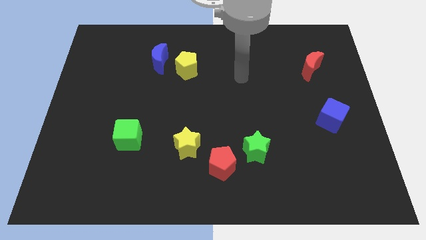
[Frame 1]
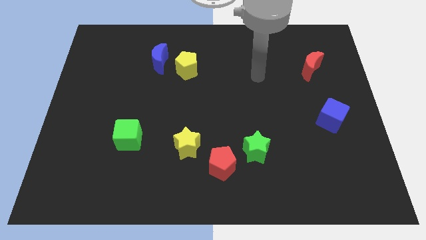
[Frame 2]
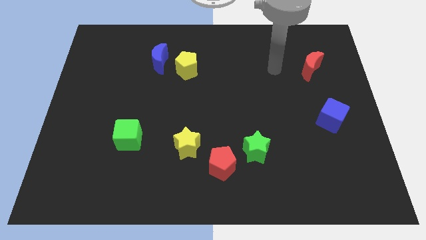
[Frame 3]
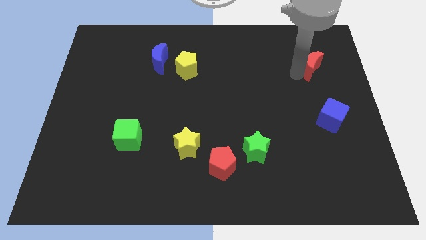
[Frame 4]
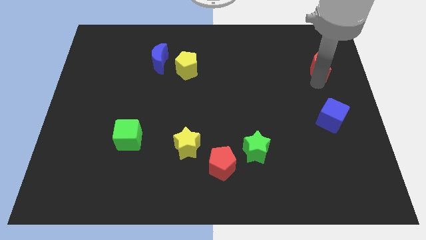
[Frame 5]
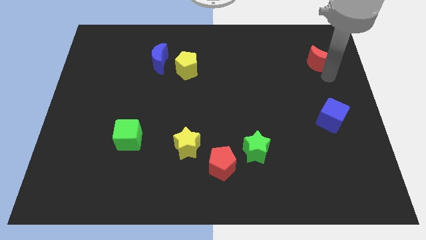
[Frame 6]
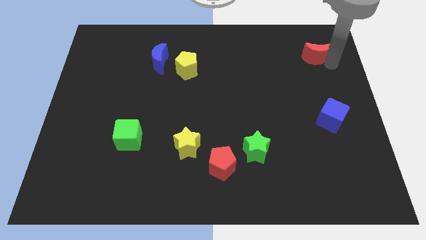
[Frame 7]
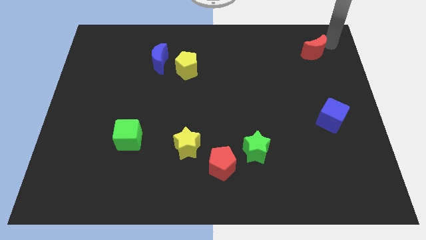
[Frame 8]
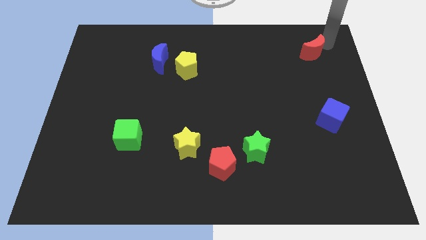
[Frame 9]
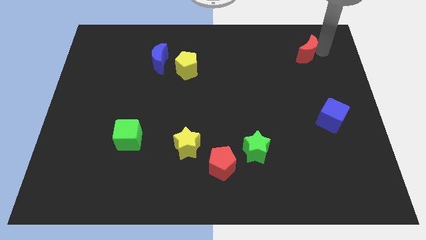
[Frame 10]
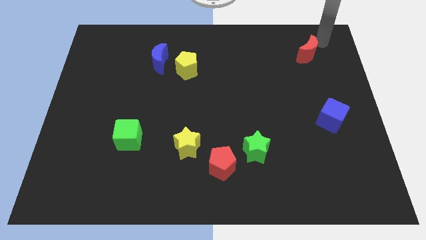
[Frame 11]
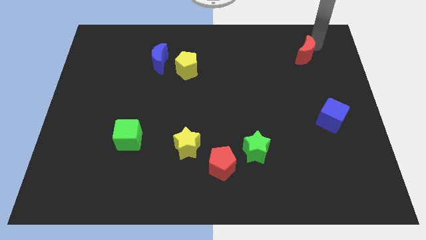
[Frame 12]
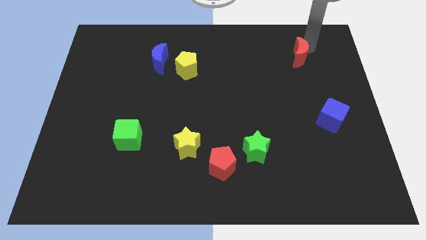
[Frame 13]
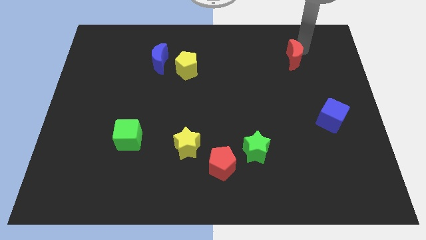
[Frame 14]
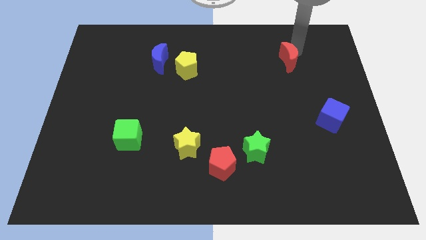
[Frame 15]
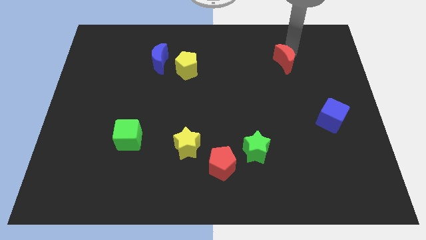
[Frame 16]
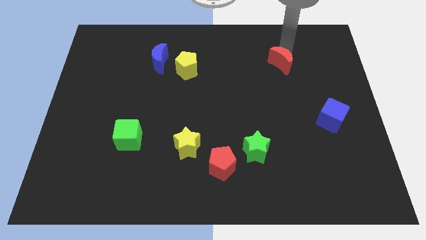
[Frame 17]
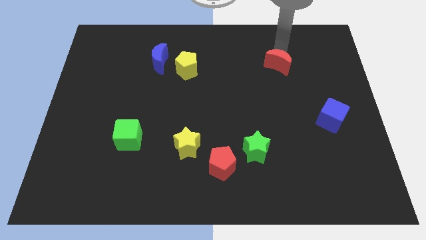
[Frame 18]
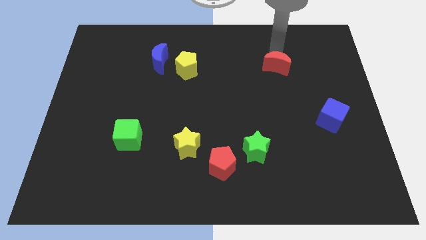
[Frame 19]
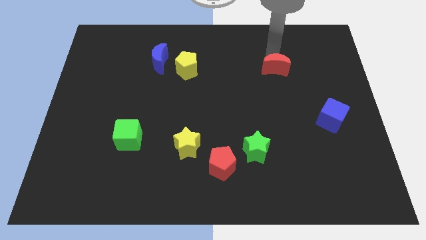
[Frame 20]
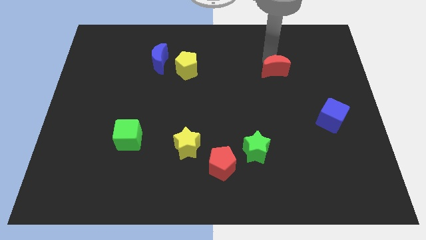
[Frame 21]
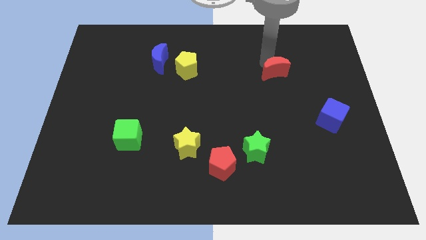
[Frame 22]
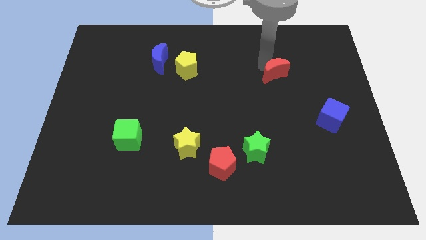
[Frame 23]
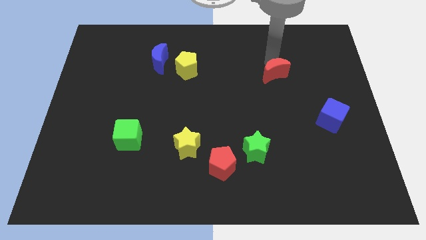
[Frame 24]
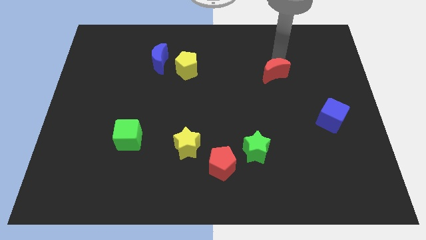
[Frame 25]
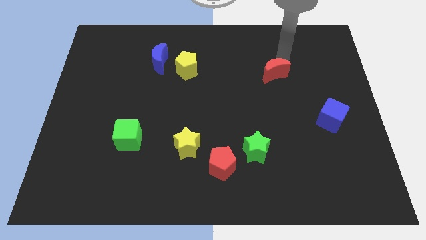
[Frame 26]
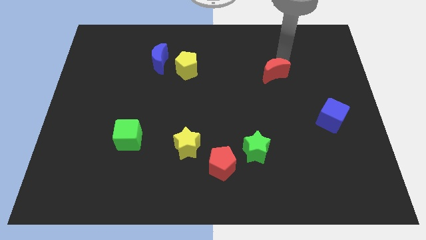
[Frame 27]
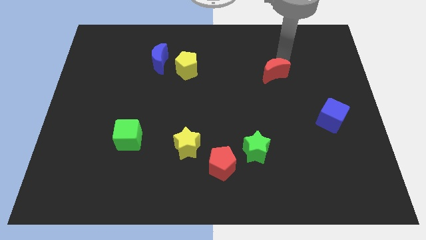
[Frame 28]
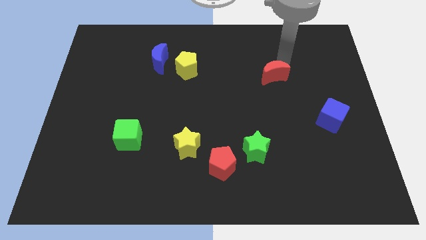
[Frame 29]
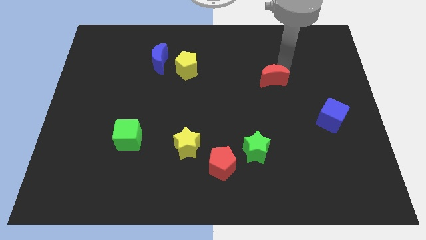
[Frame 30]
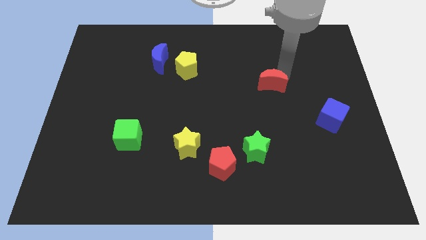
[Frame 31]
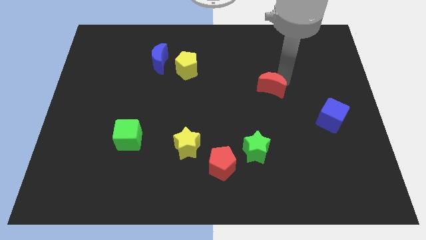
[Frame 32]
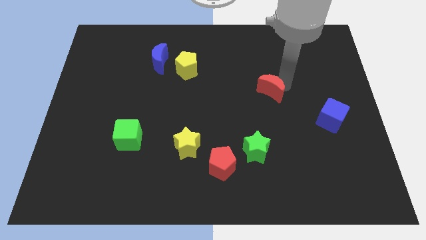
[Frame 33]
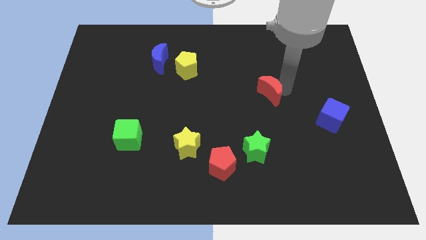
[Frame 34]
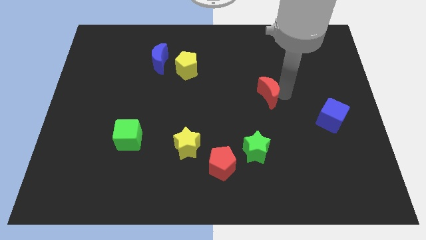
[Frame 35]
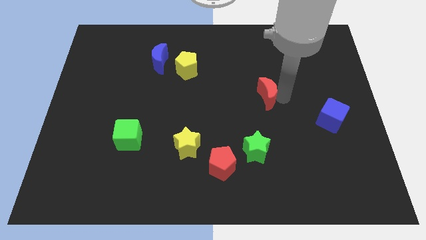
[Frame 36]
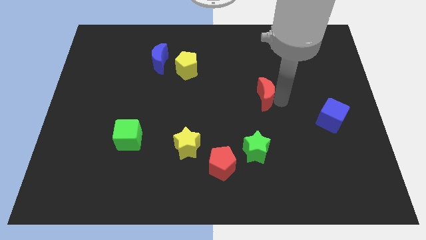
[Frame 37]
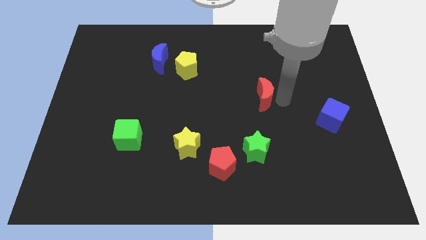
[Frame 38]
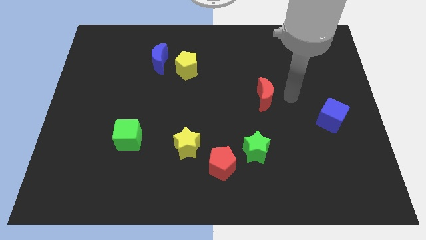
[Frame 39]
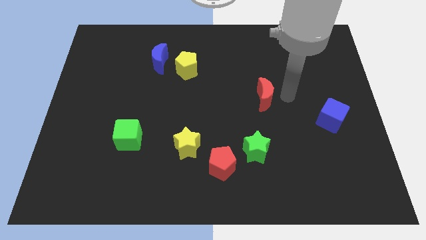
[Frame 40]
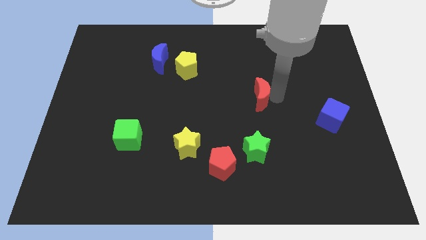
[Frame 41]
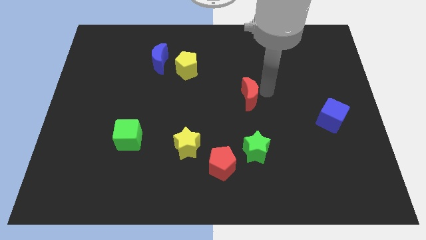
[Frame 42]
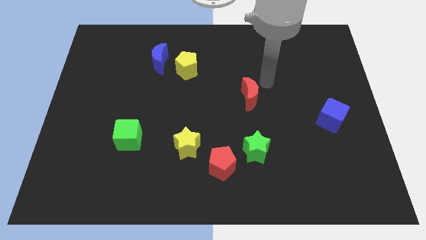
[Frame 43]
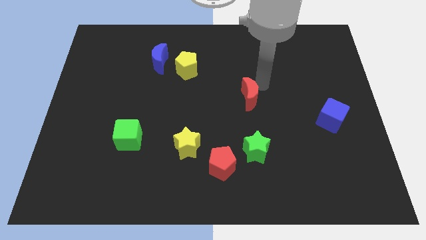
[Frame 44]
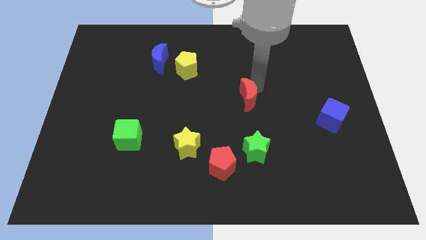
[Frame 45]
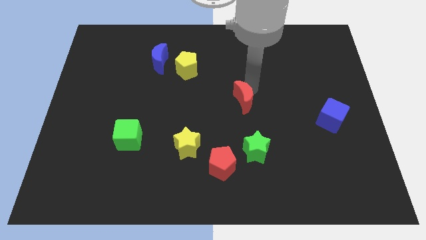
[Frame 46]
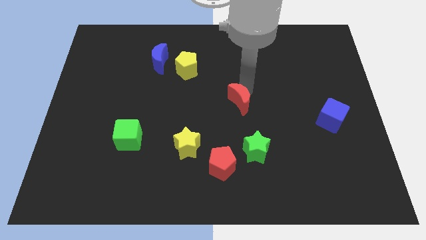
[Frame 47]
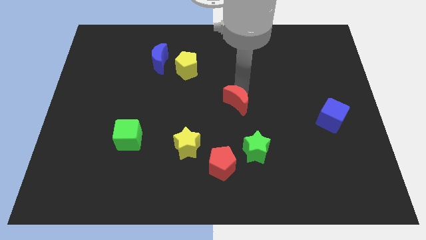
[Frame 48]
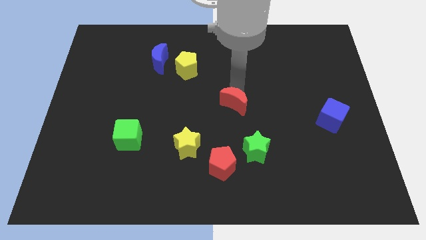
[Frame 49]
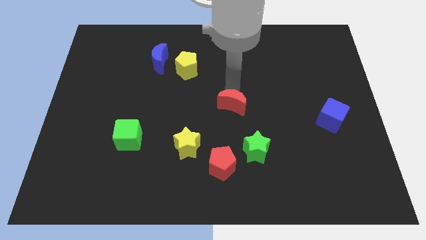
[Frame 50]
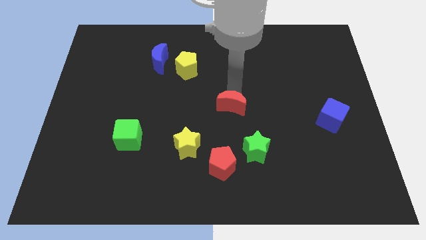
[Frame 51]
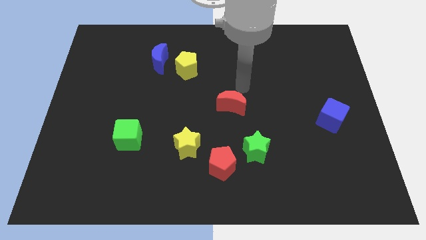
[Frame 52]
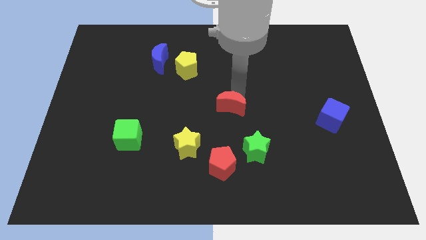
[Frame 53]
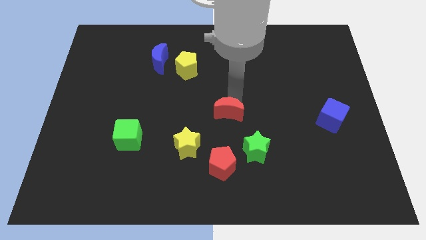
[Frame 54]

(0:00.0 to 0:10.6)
slide the red moon to the top side of the red pentagon

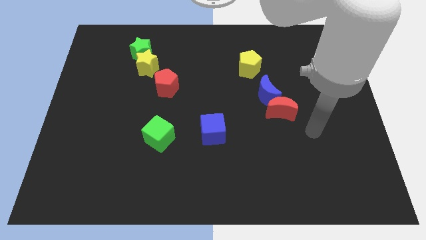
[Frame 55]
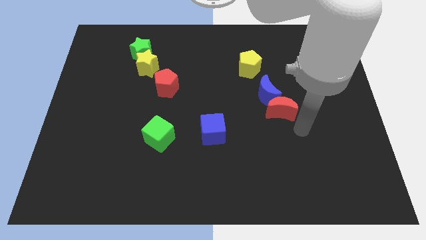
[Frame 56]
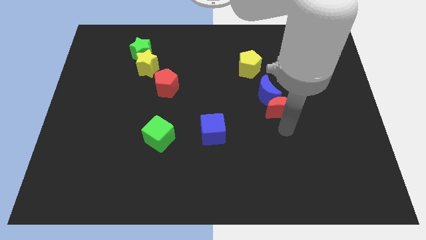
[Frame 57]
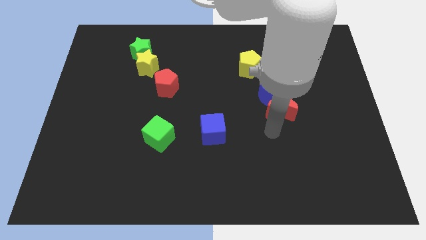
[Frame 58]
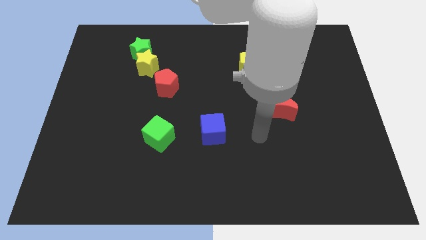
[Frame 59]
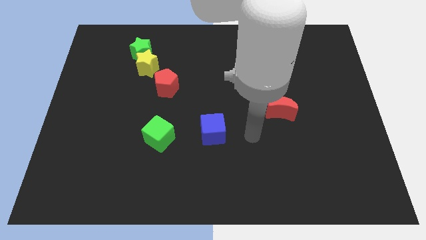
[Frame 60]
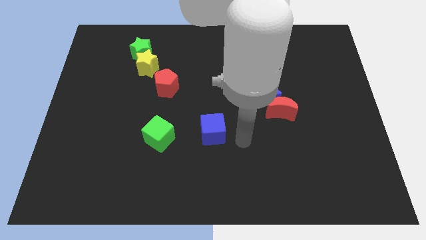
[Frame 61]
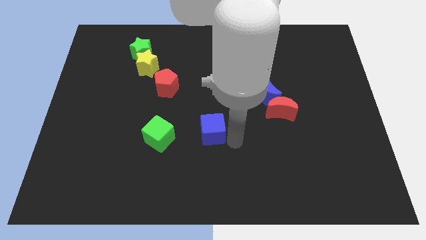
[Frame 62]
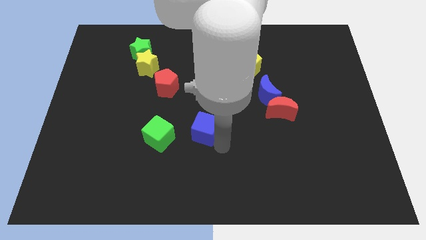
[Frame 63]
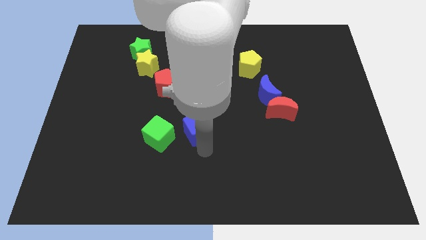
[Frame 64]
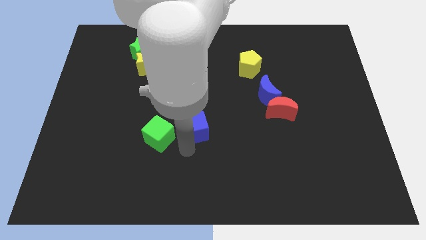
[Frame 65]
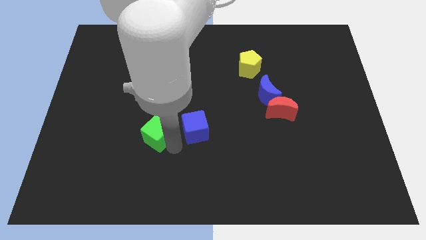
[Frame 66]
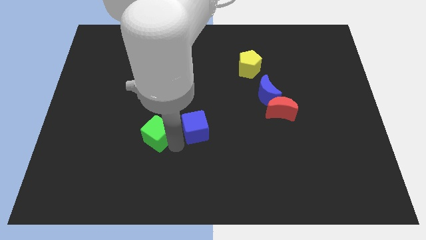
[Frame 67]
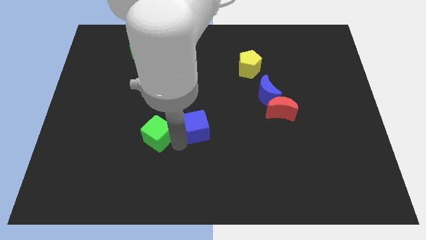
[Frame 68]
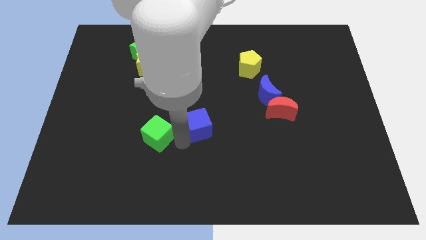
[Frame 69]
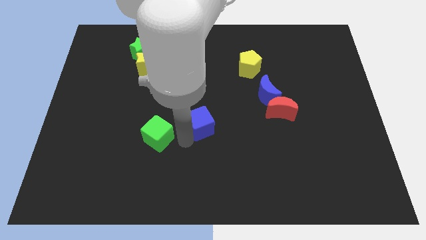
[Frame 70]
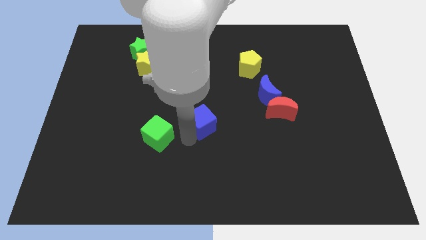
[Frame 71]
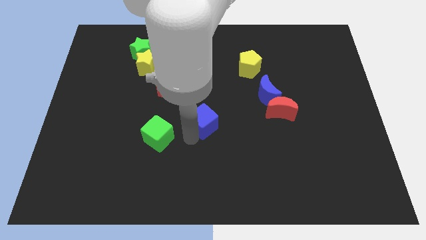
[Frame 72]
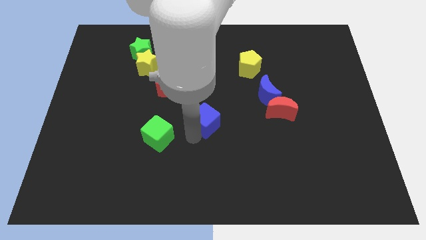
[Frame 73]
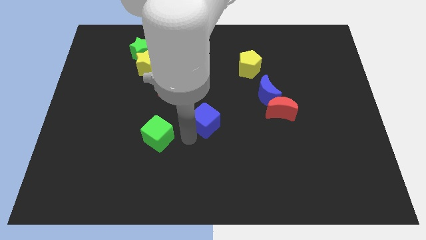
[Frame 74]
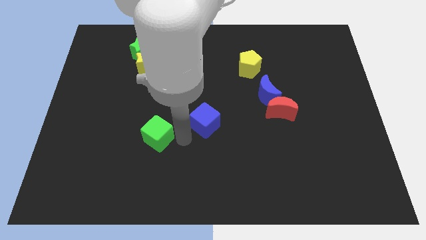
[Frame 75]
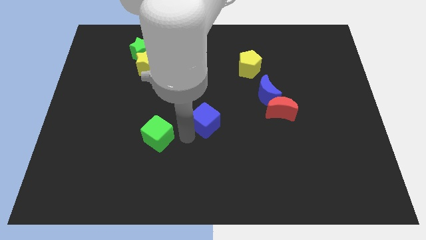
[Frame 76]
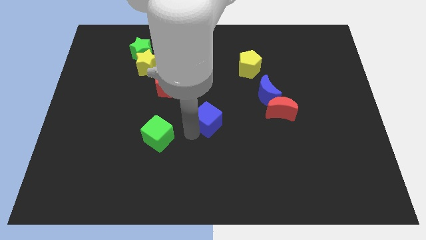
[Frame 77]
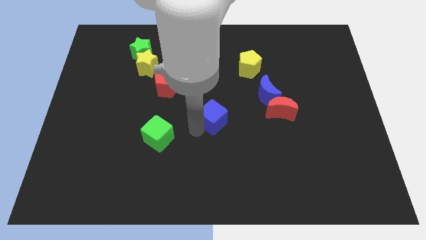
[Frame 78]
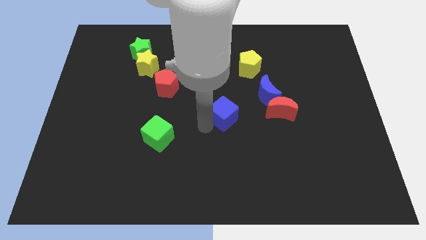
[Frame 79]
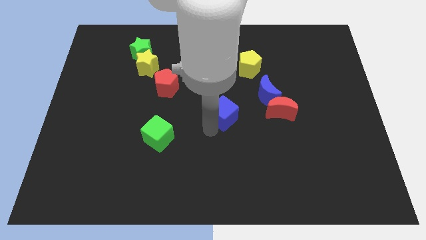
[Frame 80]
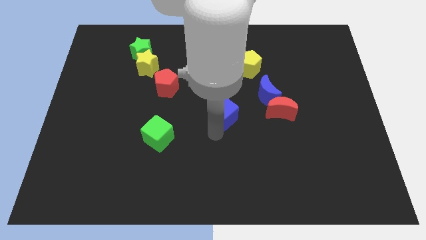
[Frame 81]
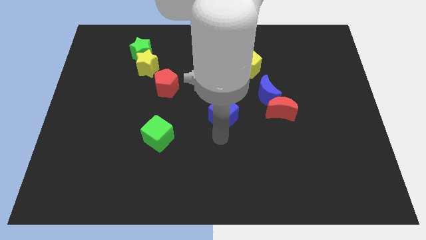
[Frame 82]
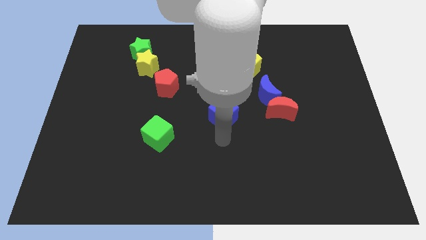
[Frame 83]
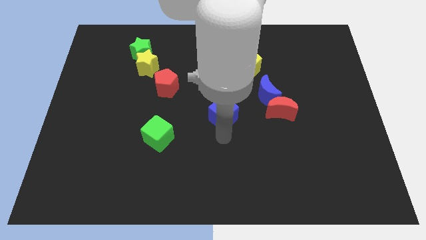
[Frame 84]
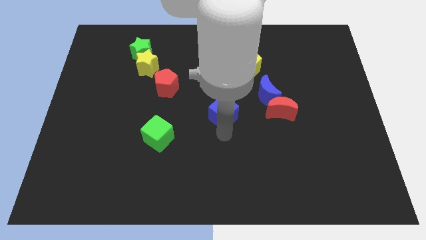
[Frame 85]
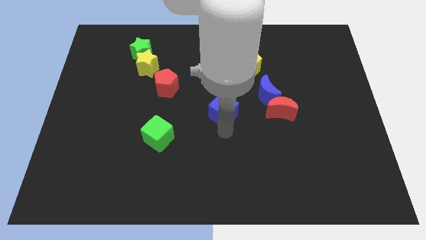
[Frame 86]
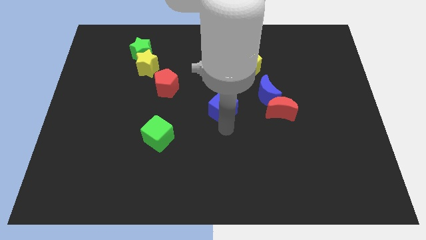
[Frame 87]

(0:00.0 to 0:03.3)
move the blue cube just left of the blue moon
